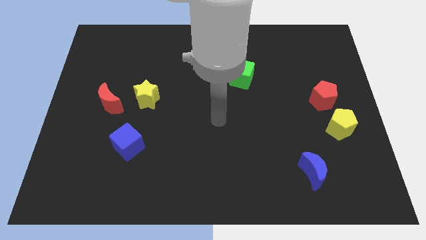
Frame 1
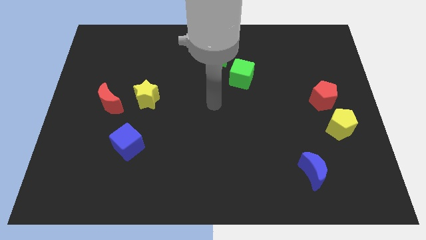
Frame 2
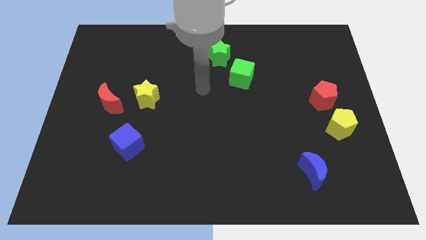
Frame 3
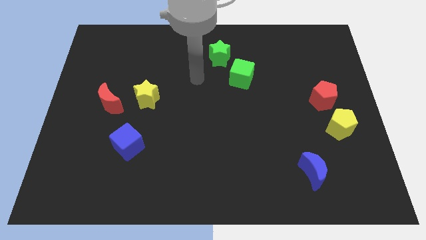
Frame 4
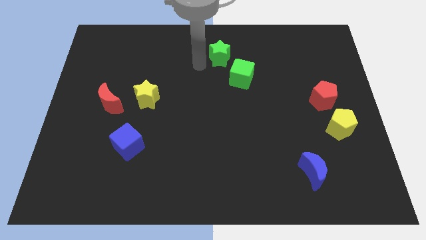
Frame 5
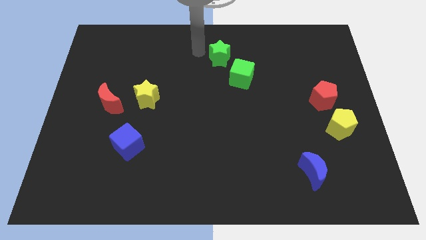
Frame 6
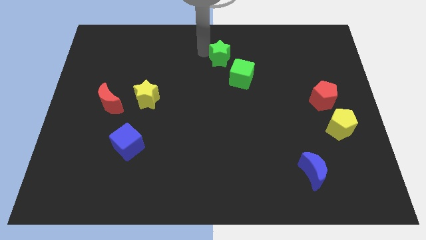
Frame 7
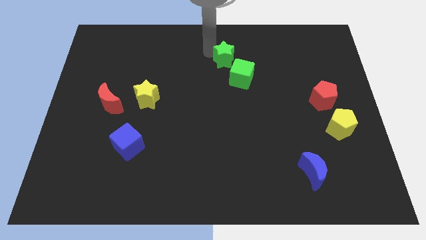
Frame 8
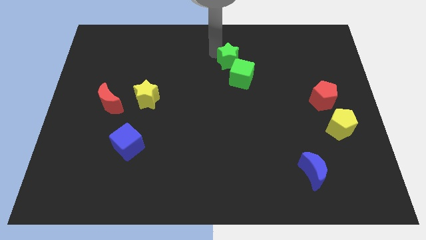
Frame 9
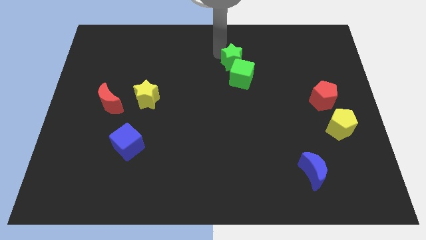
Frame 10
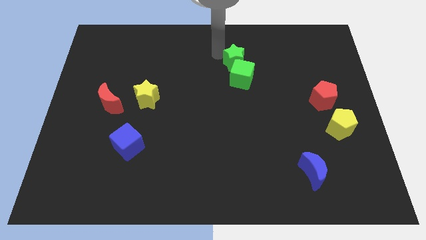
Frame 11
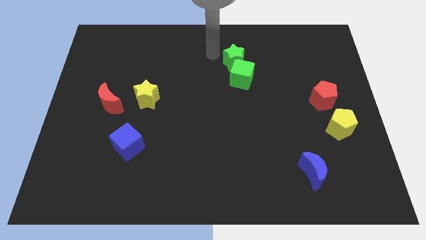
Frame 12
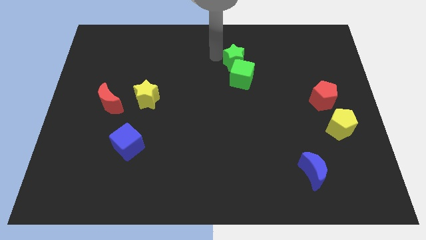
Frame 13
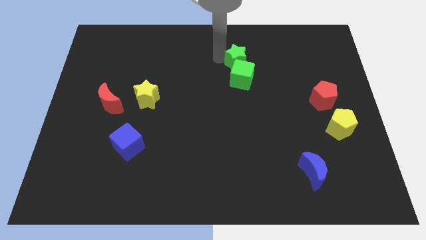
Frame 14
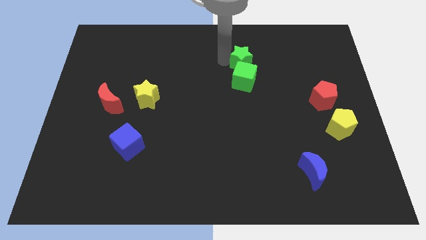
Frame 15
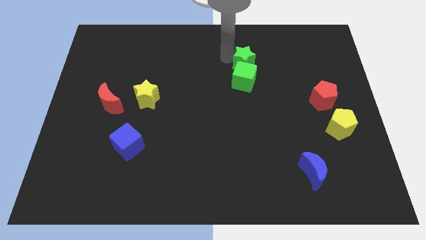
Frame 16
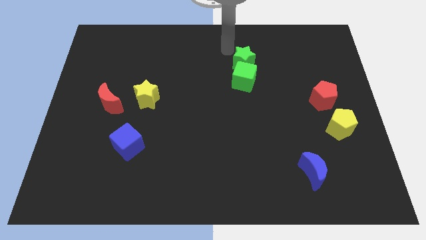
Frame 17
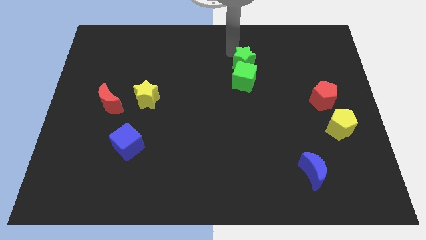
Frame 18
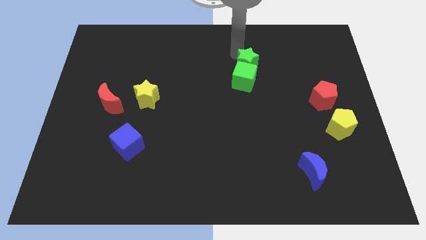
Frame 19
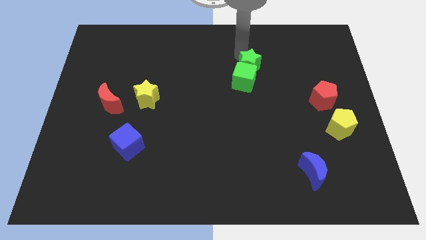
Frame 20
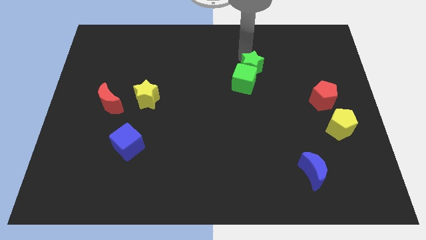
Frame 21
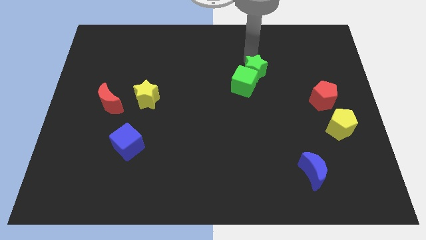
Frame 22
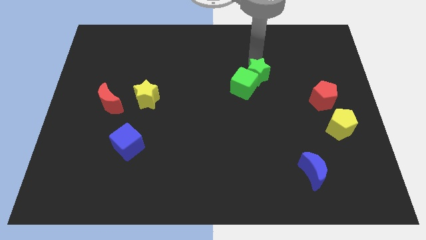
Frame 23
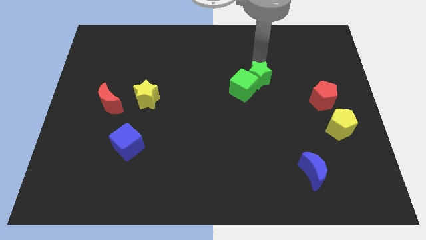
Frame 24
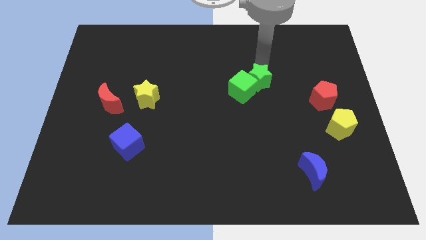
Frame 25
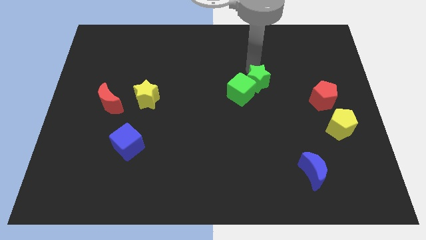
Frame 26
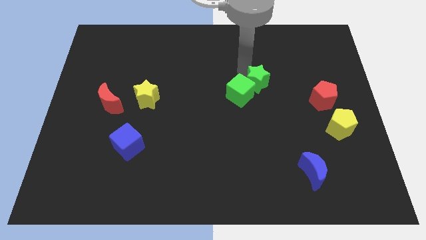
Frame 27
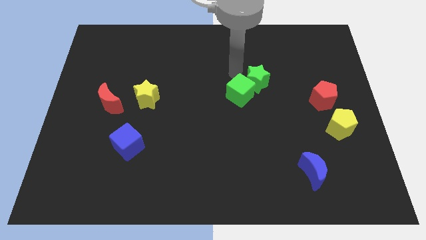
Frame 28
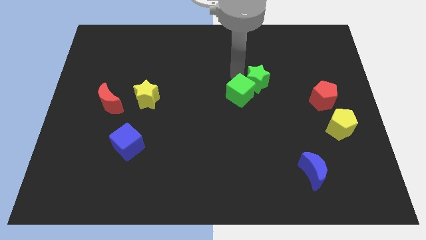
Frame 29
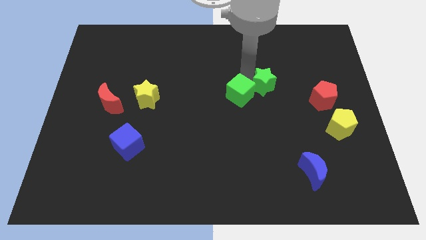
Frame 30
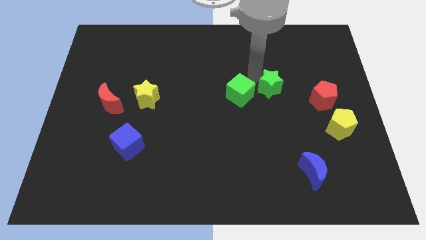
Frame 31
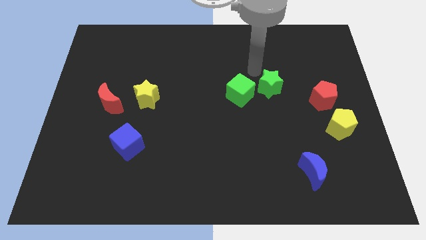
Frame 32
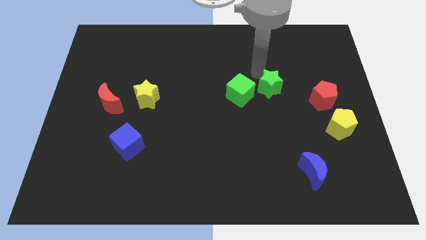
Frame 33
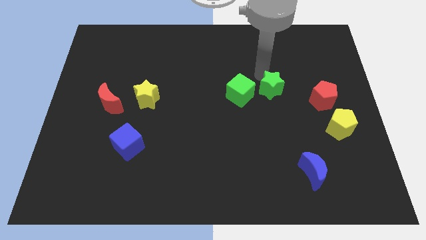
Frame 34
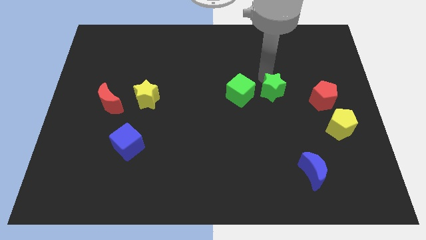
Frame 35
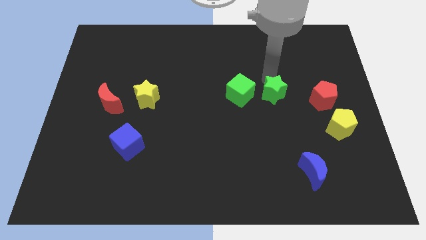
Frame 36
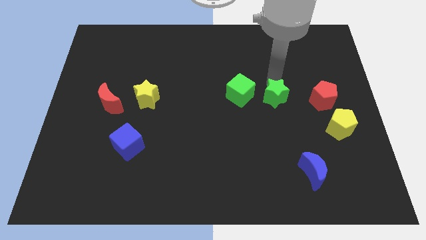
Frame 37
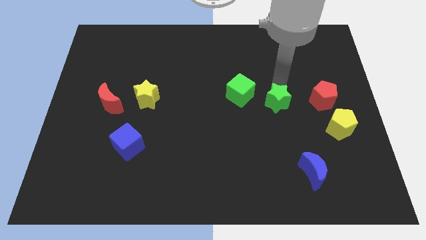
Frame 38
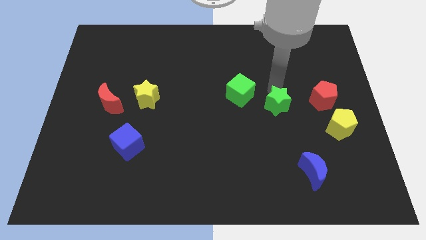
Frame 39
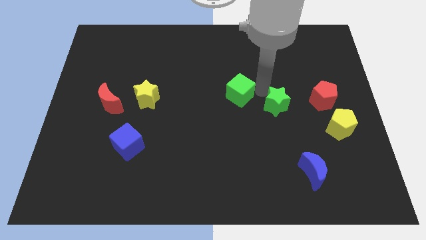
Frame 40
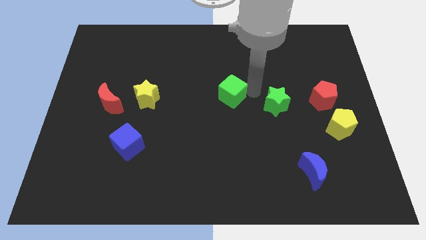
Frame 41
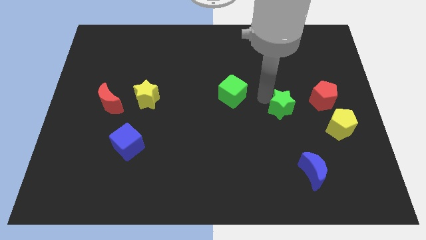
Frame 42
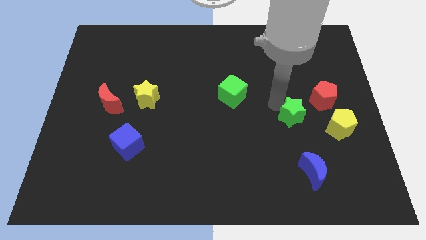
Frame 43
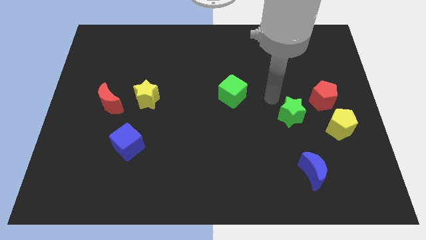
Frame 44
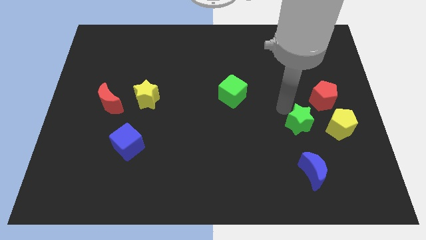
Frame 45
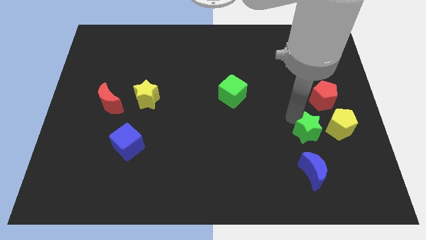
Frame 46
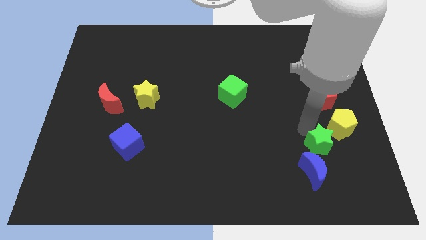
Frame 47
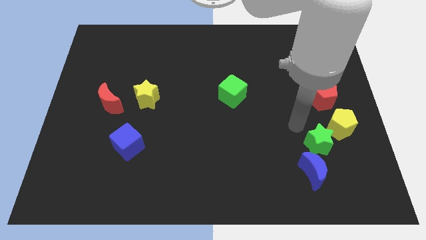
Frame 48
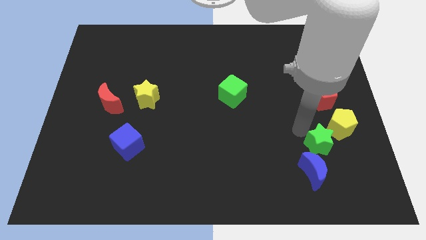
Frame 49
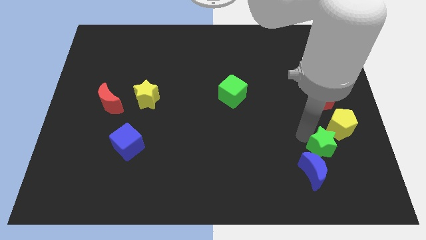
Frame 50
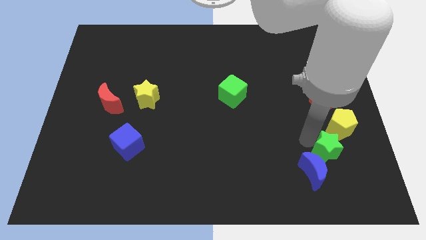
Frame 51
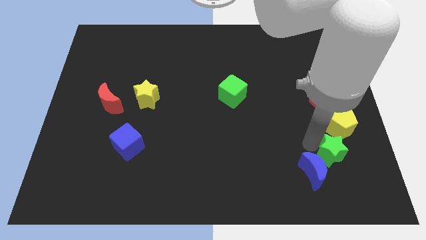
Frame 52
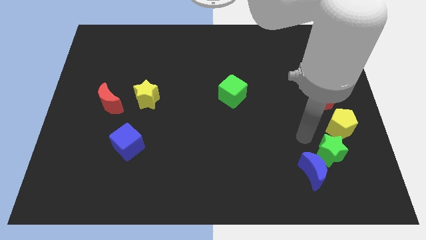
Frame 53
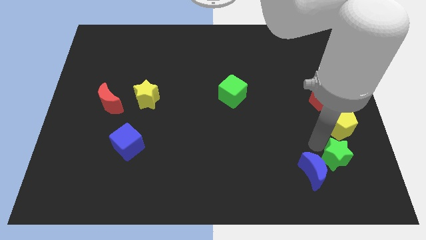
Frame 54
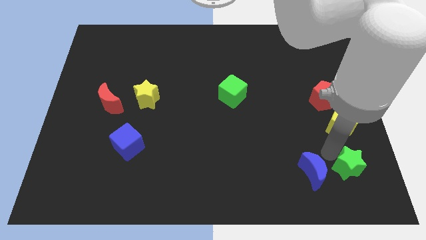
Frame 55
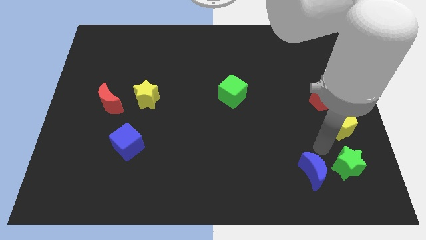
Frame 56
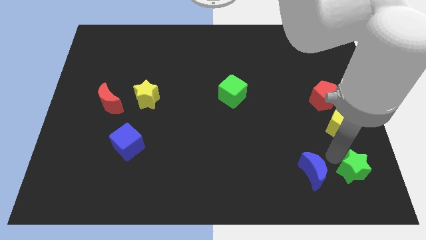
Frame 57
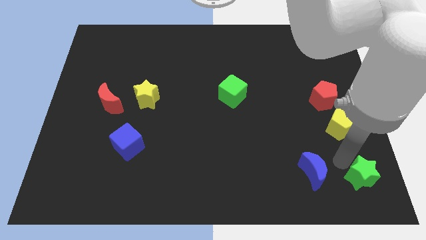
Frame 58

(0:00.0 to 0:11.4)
slide the green star to the bottom right corner

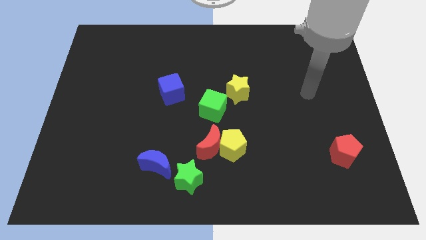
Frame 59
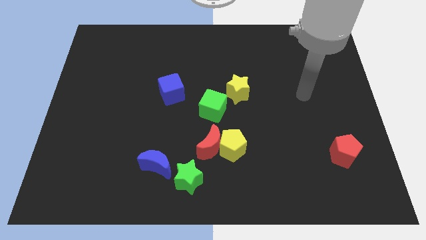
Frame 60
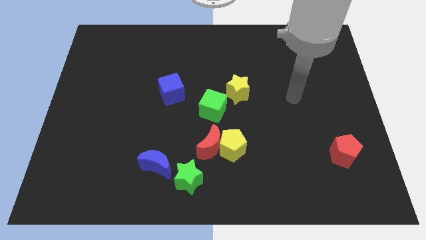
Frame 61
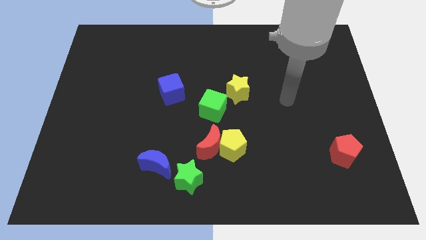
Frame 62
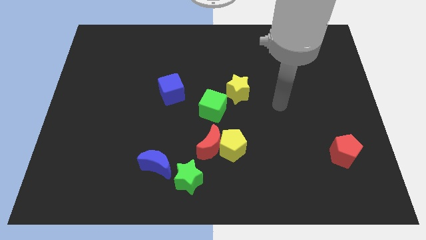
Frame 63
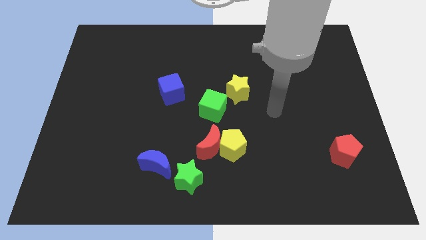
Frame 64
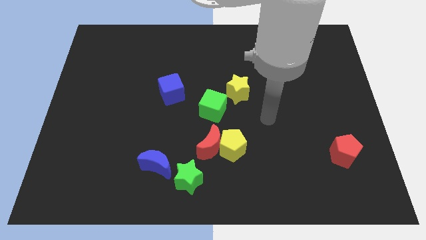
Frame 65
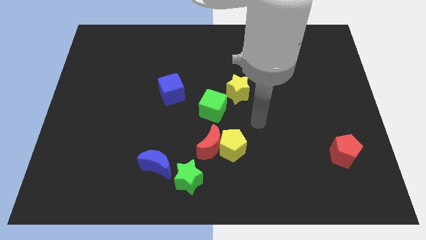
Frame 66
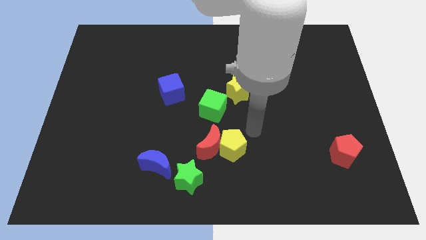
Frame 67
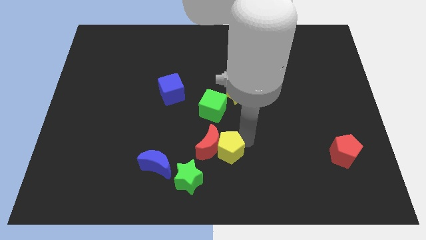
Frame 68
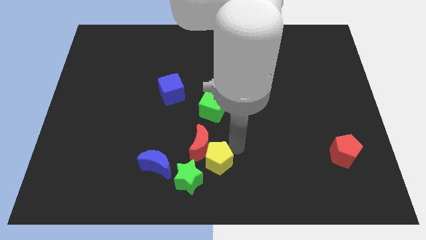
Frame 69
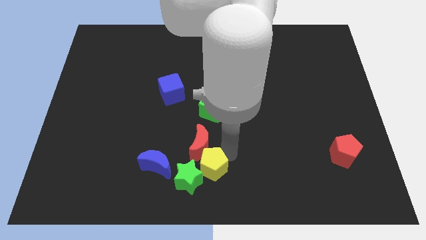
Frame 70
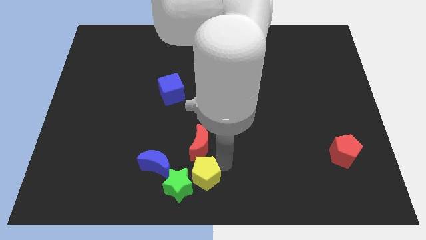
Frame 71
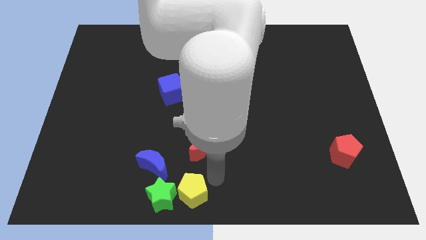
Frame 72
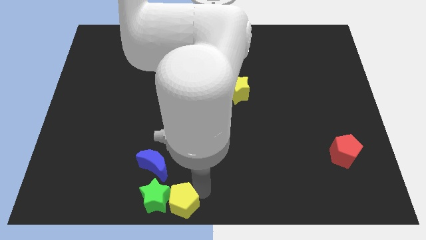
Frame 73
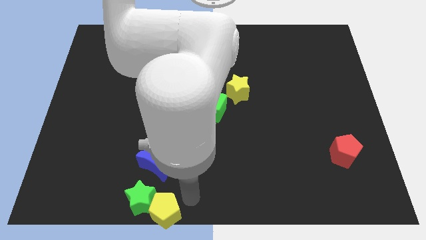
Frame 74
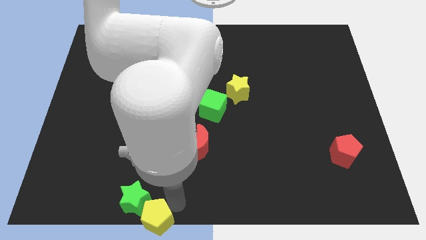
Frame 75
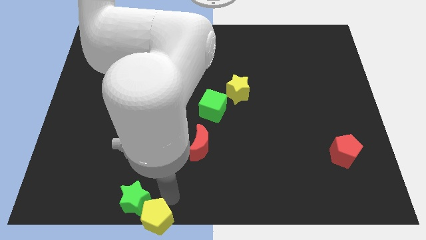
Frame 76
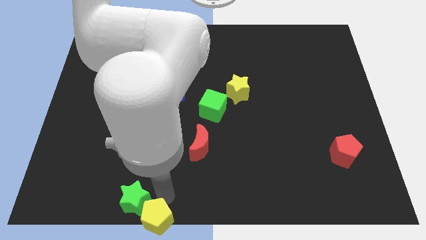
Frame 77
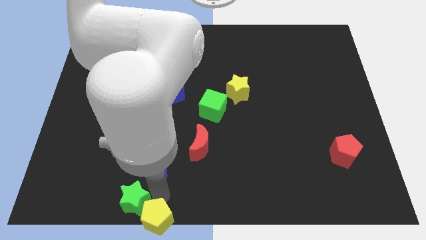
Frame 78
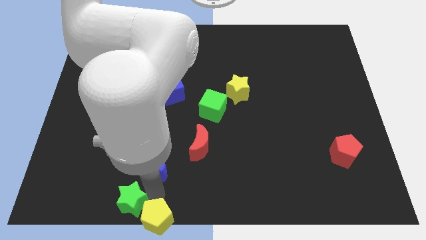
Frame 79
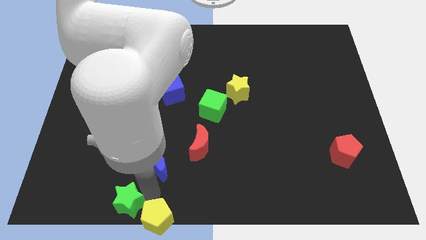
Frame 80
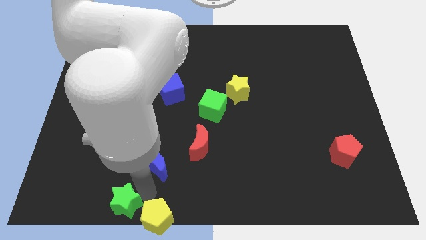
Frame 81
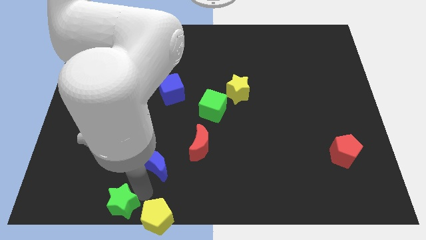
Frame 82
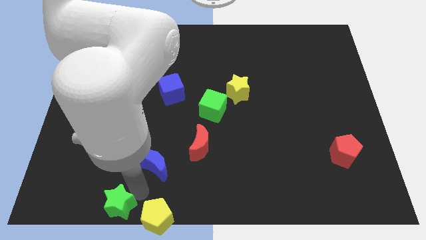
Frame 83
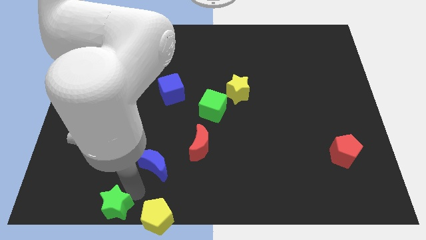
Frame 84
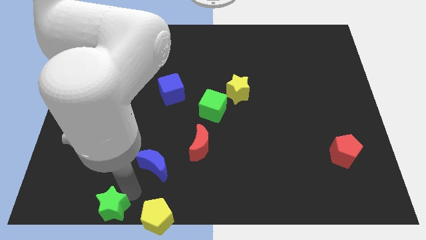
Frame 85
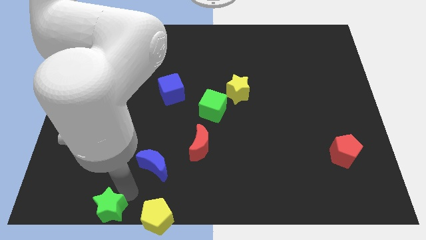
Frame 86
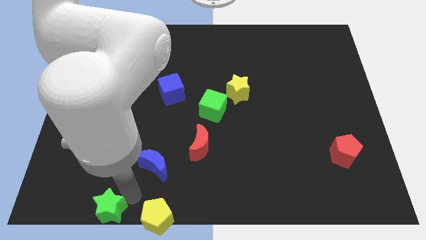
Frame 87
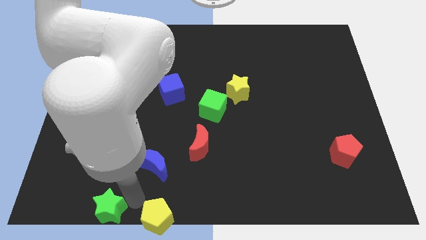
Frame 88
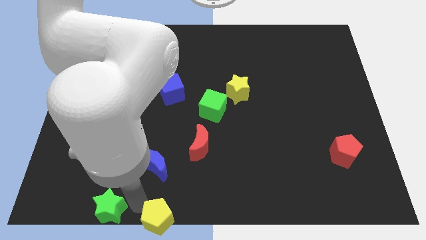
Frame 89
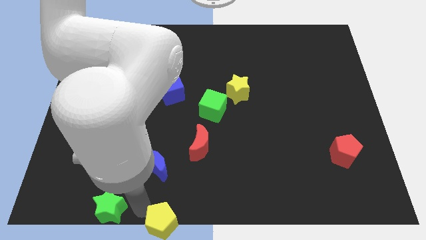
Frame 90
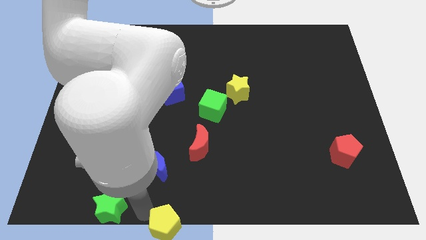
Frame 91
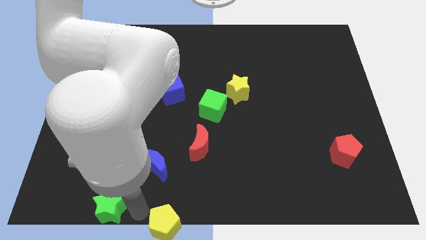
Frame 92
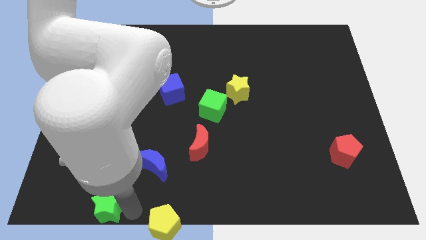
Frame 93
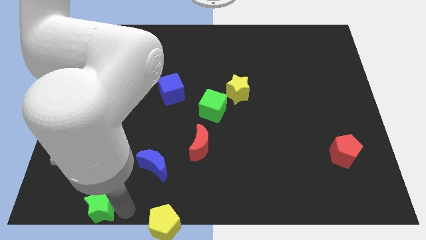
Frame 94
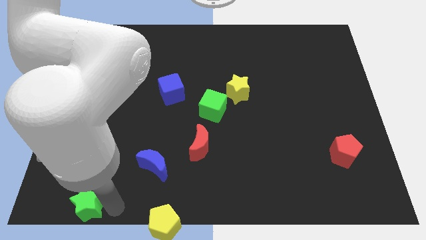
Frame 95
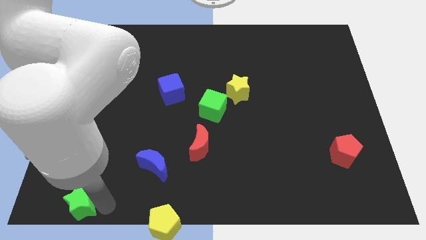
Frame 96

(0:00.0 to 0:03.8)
move the green star to the bottom left
